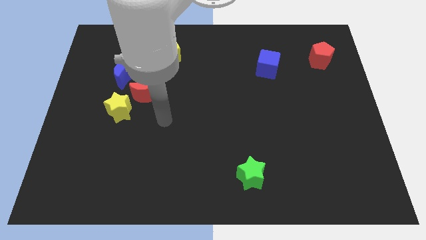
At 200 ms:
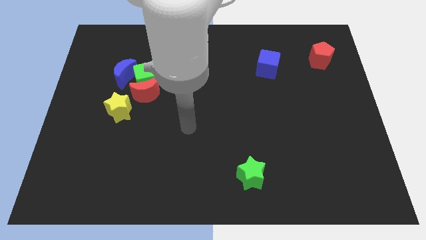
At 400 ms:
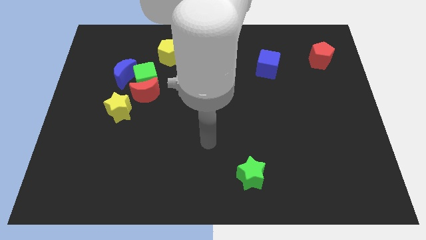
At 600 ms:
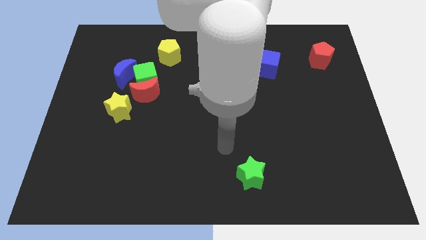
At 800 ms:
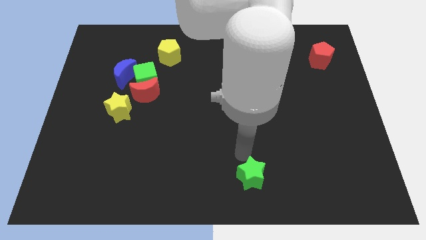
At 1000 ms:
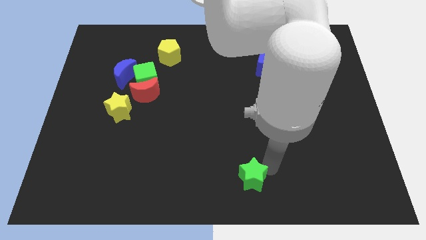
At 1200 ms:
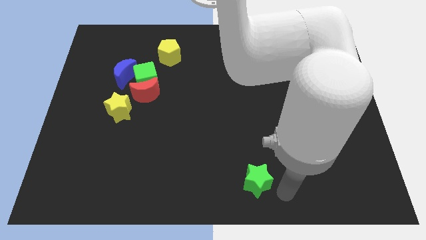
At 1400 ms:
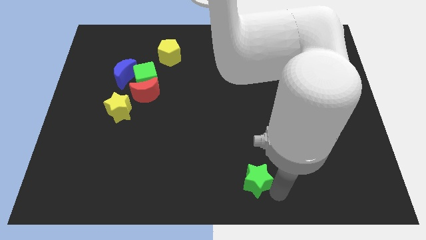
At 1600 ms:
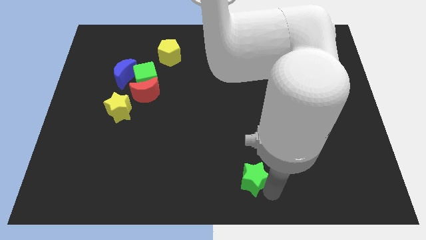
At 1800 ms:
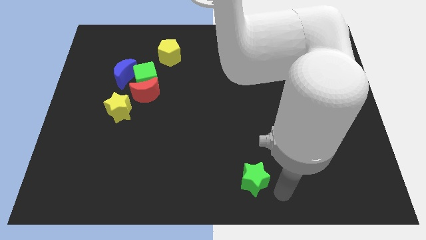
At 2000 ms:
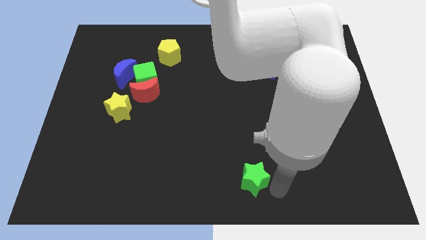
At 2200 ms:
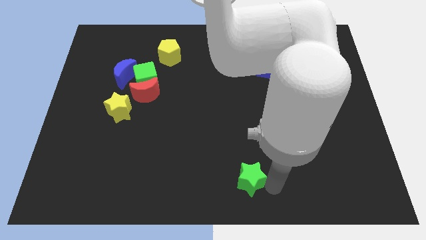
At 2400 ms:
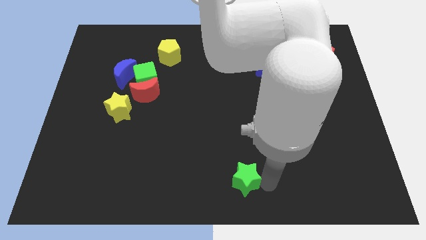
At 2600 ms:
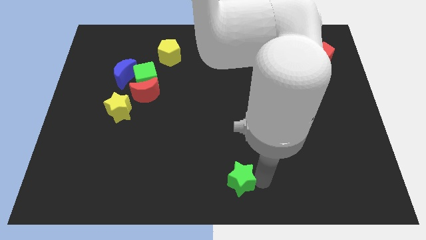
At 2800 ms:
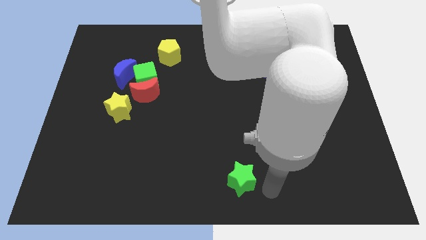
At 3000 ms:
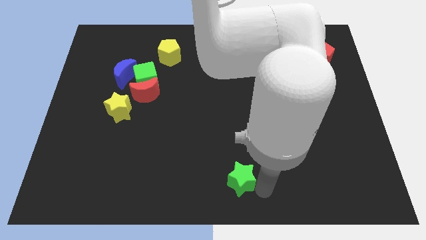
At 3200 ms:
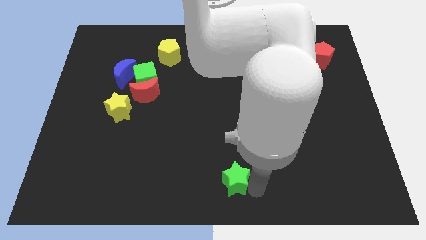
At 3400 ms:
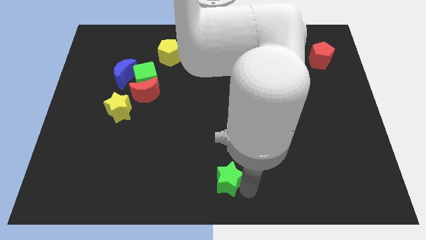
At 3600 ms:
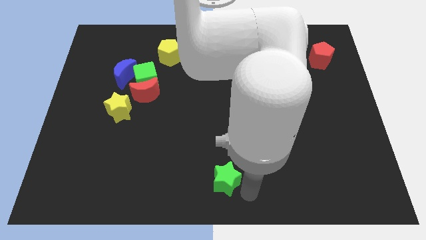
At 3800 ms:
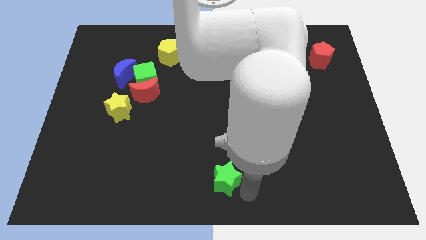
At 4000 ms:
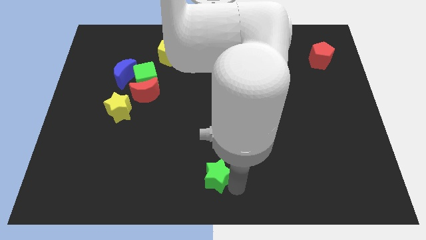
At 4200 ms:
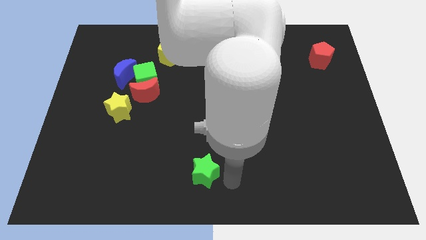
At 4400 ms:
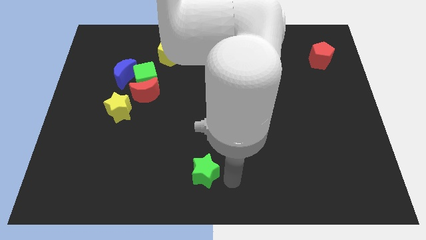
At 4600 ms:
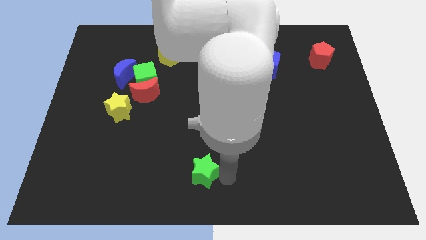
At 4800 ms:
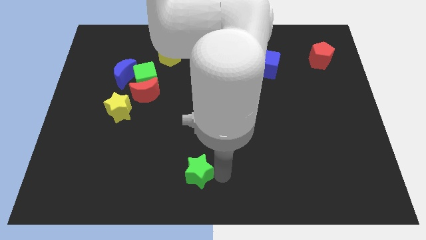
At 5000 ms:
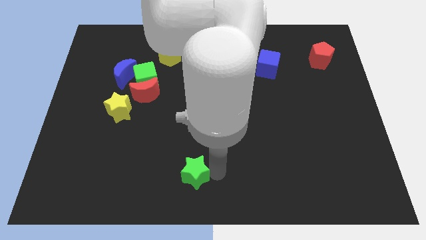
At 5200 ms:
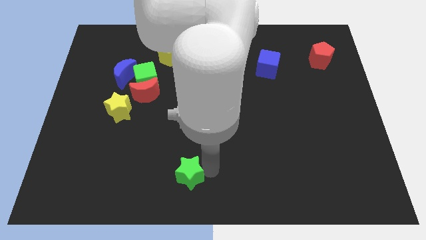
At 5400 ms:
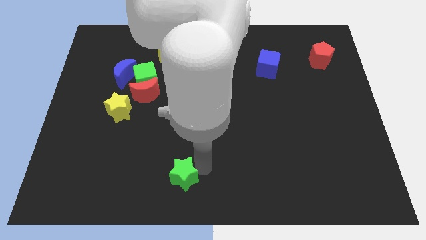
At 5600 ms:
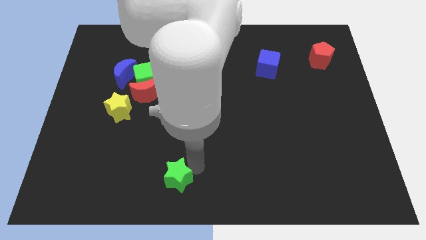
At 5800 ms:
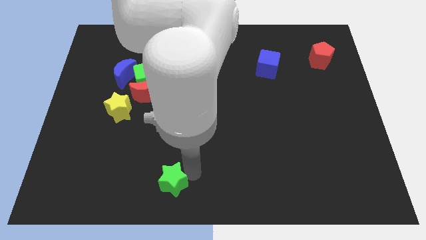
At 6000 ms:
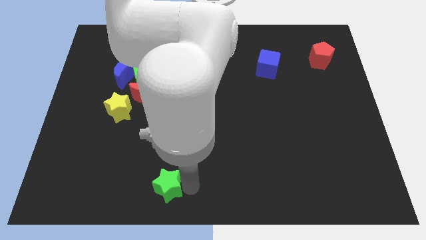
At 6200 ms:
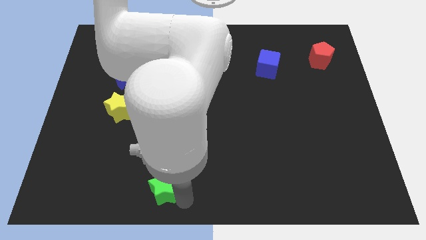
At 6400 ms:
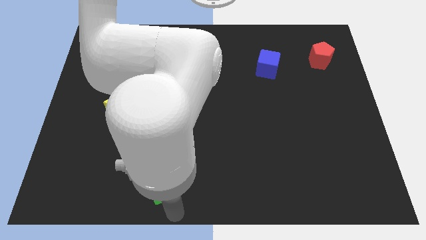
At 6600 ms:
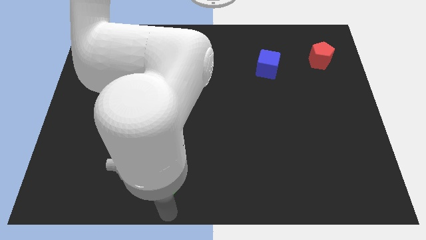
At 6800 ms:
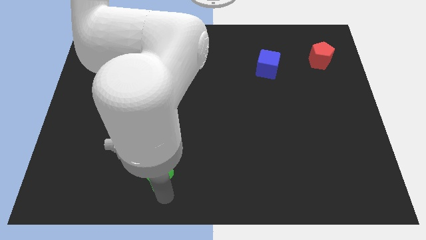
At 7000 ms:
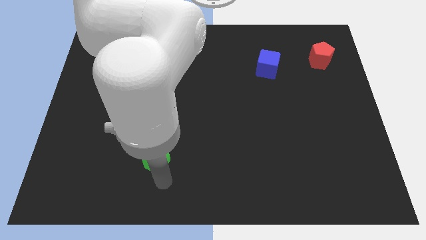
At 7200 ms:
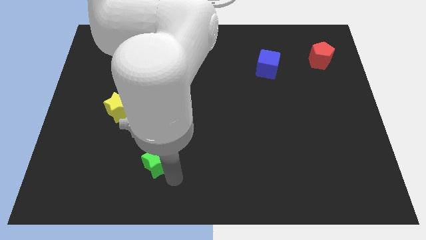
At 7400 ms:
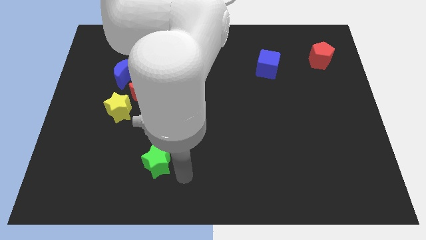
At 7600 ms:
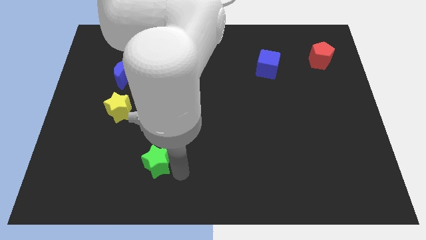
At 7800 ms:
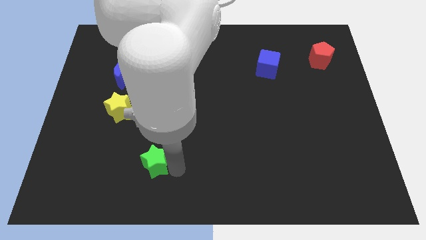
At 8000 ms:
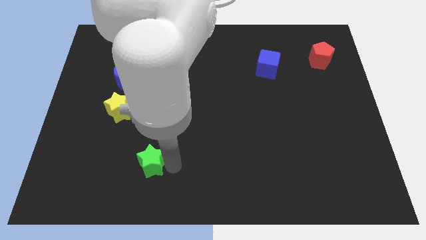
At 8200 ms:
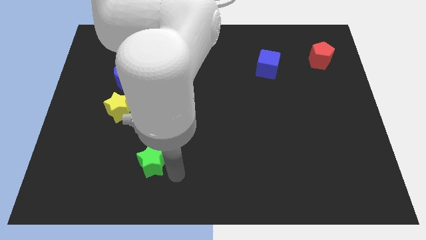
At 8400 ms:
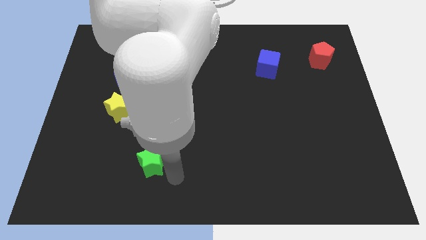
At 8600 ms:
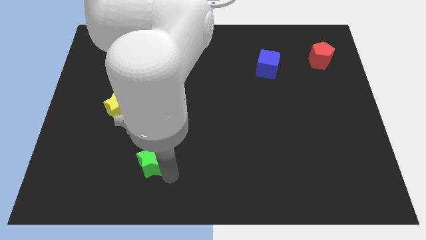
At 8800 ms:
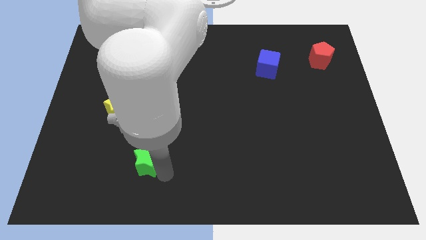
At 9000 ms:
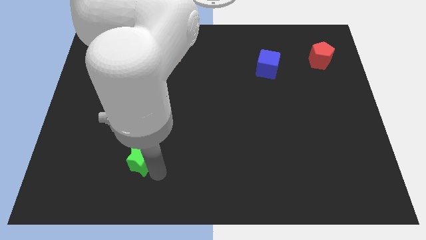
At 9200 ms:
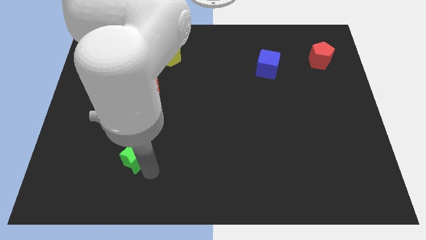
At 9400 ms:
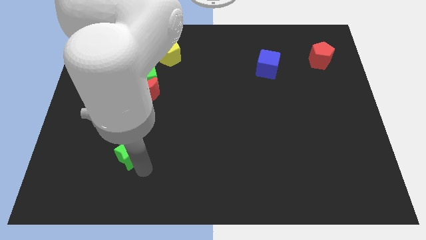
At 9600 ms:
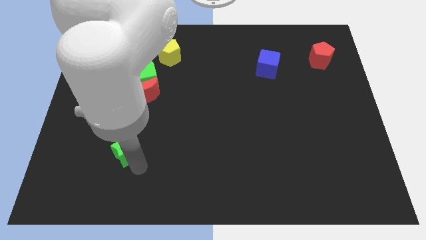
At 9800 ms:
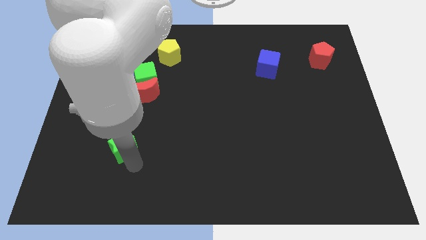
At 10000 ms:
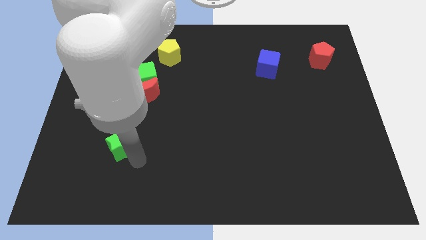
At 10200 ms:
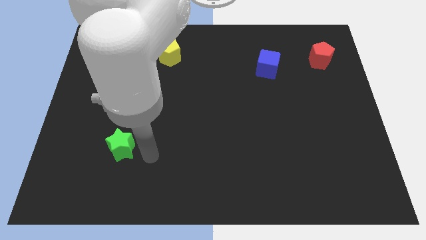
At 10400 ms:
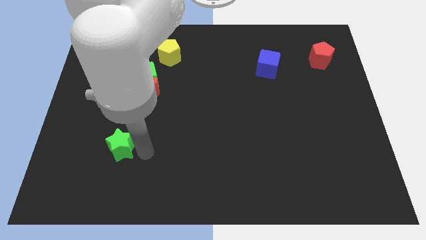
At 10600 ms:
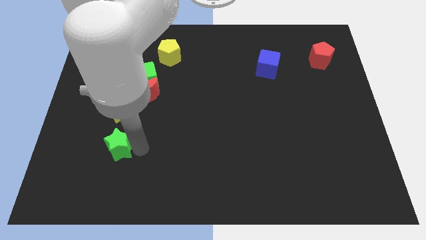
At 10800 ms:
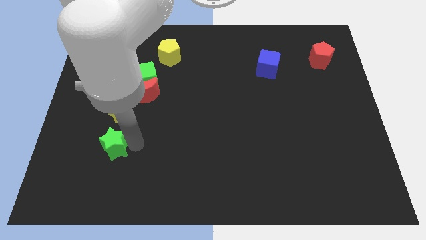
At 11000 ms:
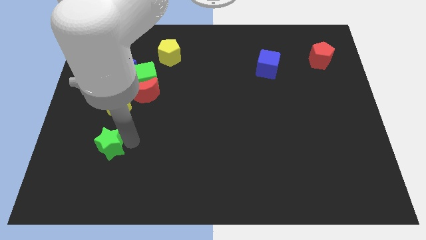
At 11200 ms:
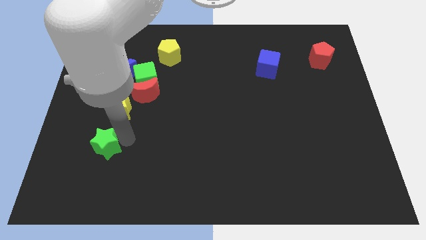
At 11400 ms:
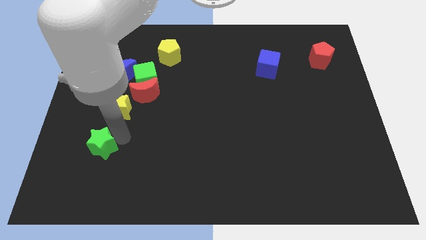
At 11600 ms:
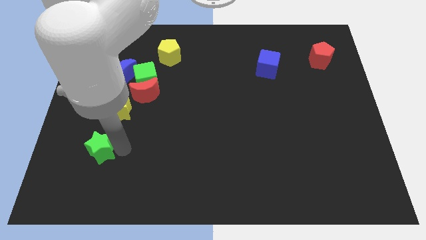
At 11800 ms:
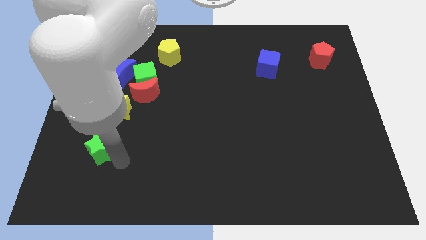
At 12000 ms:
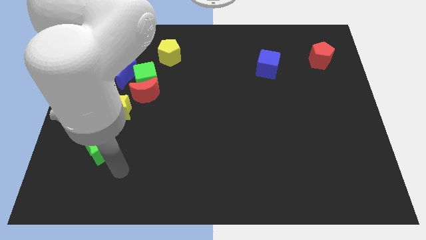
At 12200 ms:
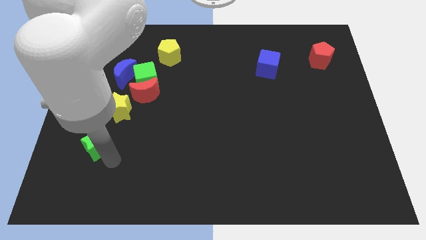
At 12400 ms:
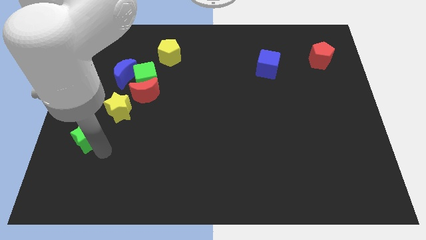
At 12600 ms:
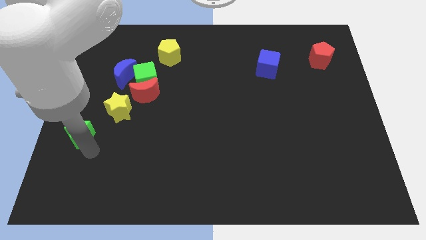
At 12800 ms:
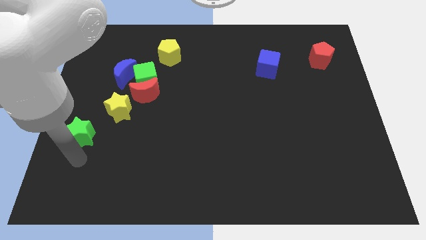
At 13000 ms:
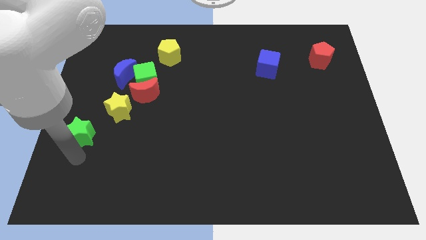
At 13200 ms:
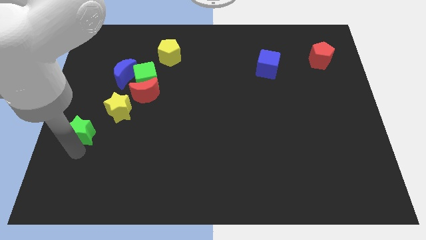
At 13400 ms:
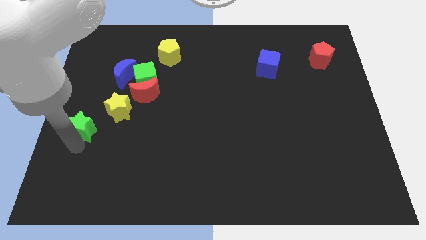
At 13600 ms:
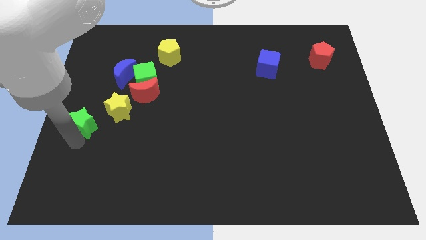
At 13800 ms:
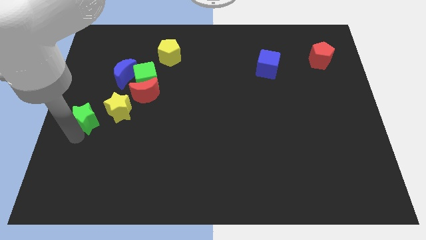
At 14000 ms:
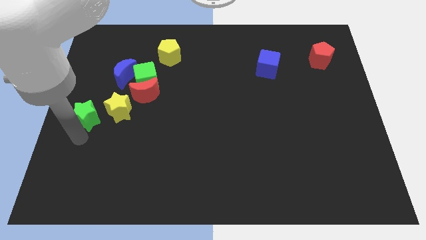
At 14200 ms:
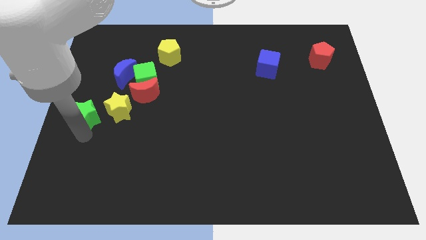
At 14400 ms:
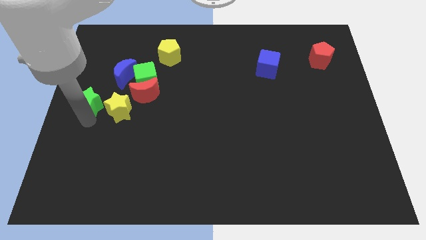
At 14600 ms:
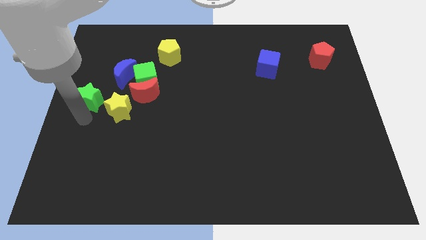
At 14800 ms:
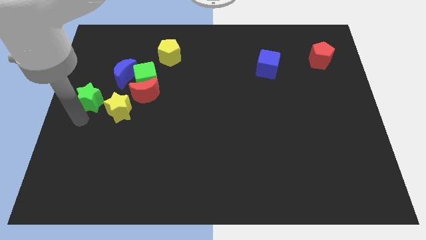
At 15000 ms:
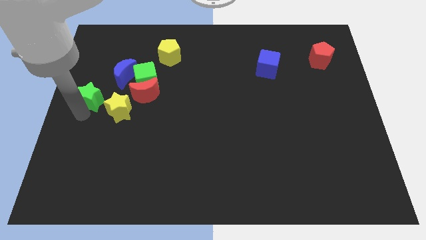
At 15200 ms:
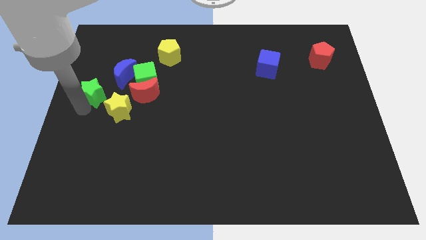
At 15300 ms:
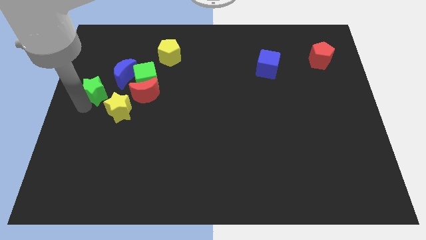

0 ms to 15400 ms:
put the green star left of the green cube
